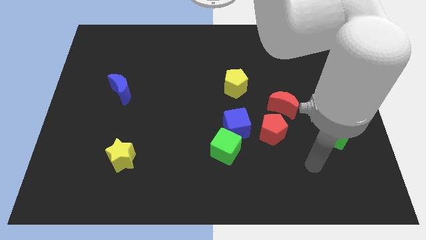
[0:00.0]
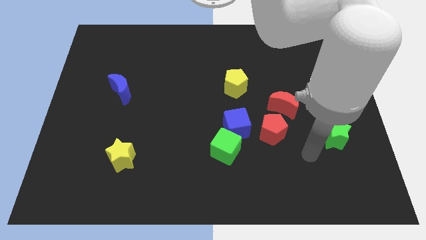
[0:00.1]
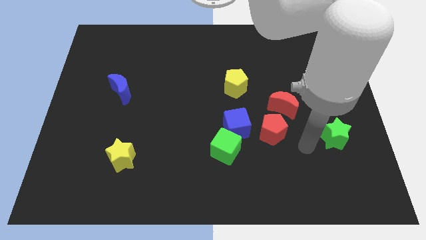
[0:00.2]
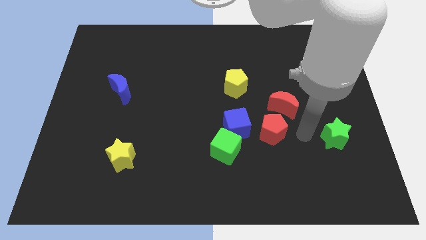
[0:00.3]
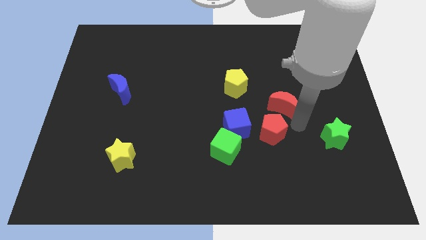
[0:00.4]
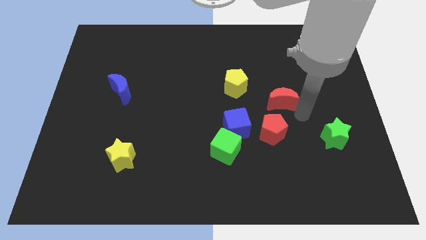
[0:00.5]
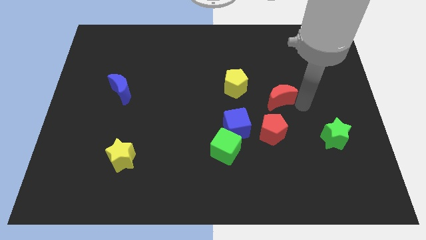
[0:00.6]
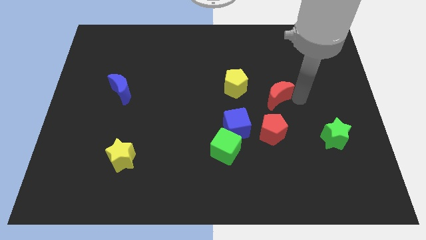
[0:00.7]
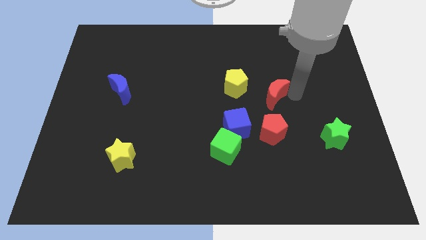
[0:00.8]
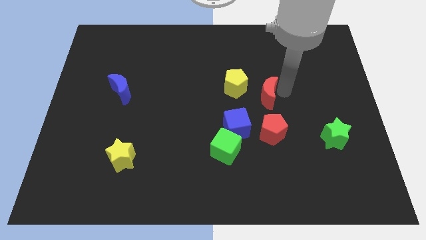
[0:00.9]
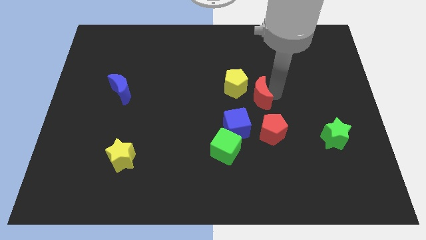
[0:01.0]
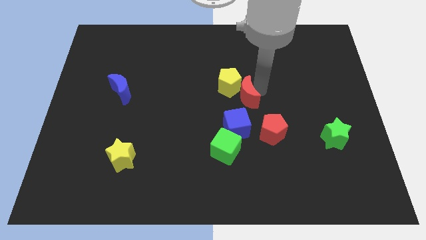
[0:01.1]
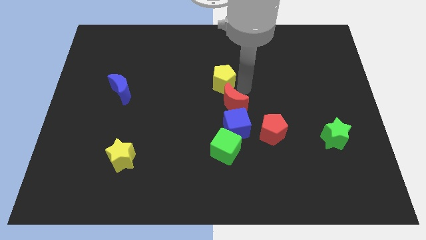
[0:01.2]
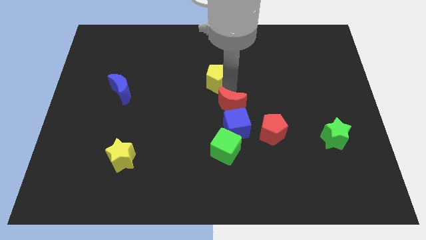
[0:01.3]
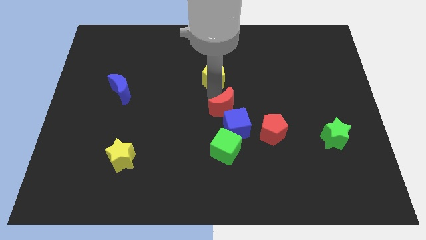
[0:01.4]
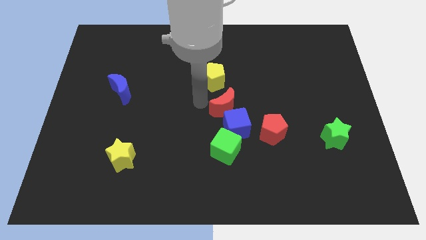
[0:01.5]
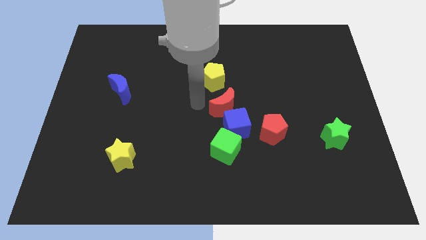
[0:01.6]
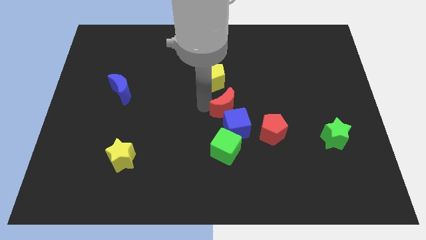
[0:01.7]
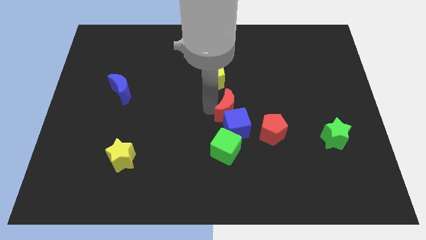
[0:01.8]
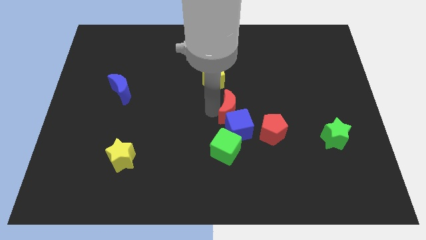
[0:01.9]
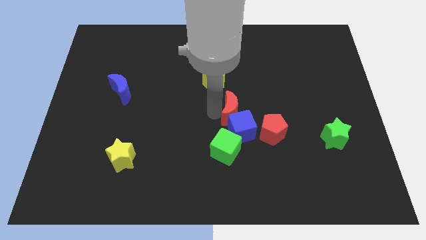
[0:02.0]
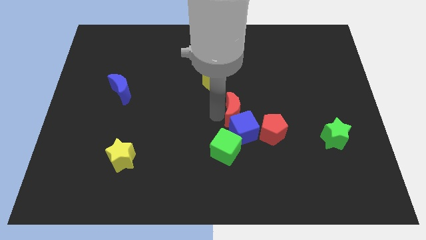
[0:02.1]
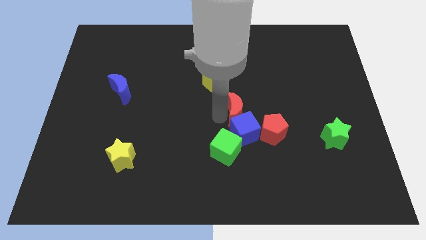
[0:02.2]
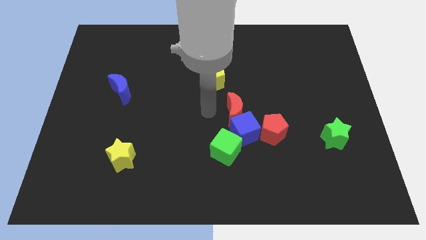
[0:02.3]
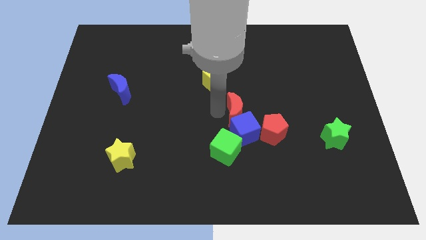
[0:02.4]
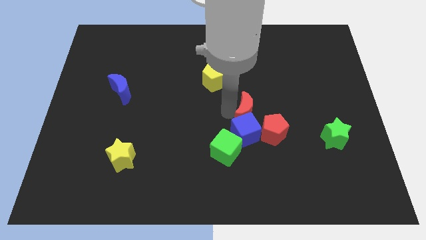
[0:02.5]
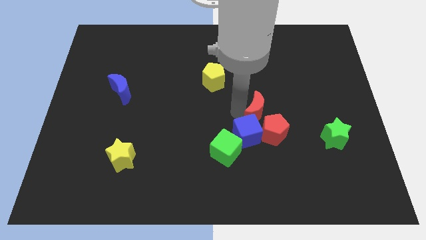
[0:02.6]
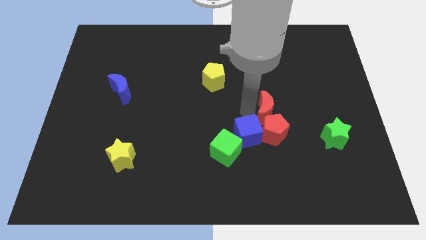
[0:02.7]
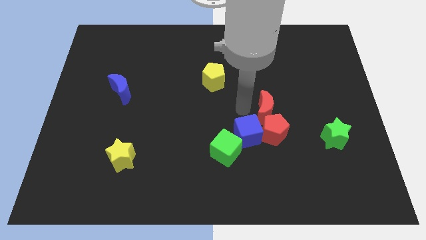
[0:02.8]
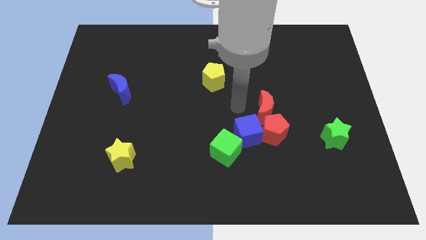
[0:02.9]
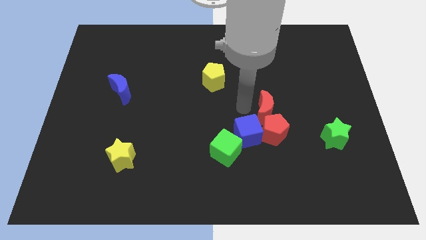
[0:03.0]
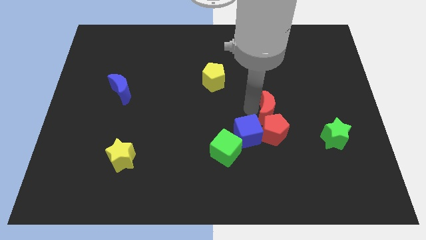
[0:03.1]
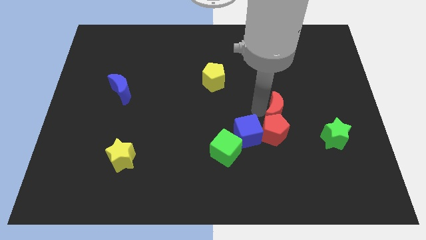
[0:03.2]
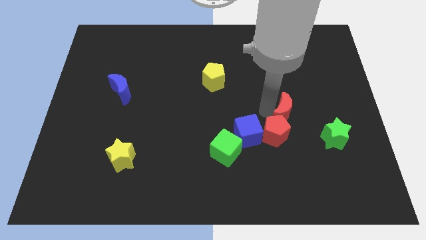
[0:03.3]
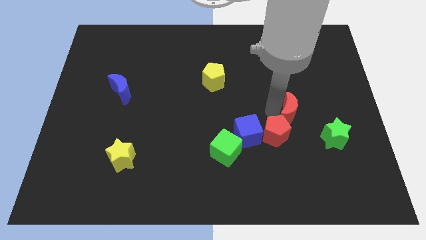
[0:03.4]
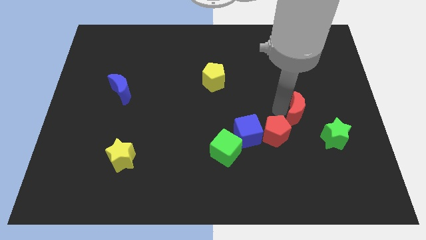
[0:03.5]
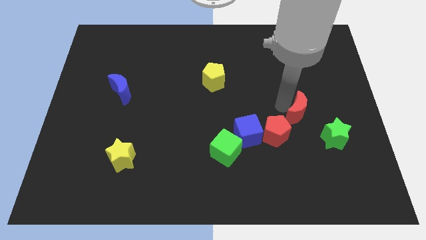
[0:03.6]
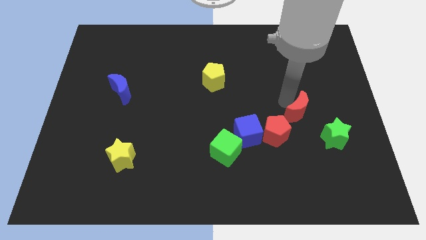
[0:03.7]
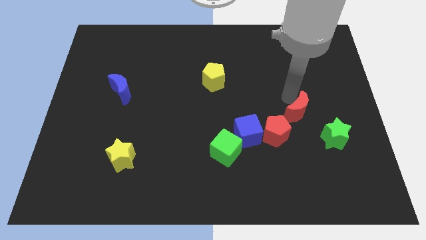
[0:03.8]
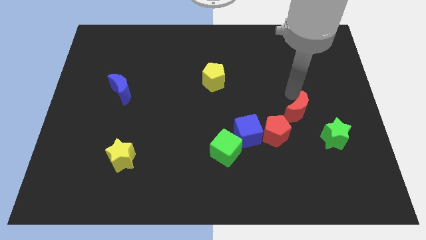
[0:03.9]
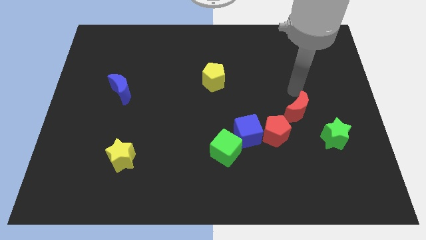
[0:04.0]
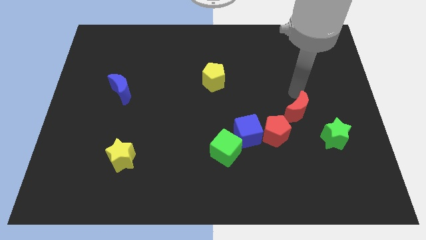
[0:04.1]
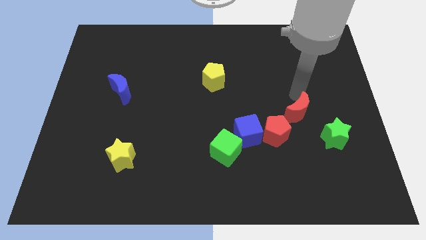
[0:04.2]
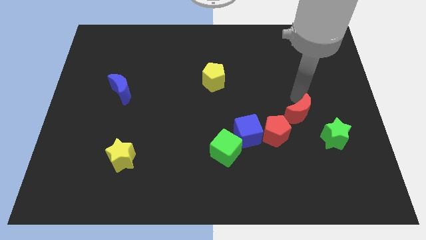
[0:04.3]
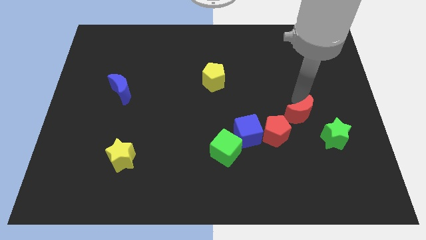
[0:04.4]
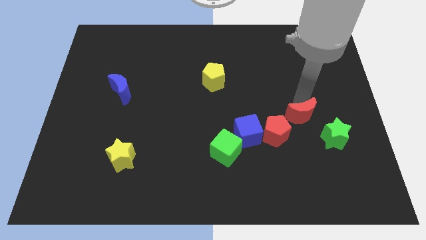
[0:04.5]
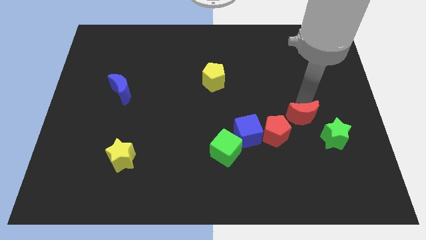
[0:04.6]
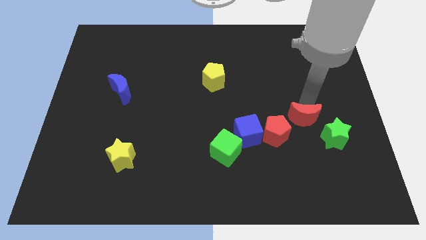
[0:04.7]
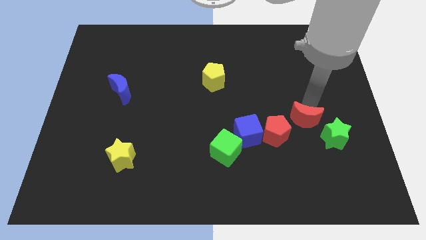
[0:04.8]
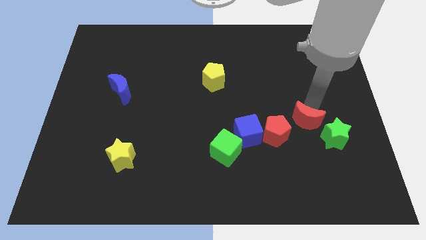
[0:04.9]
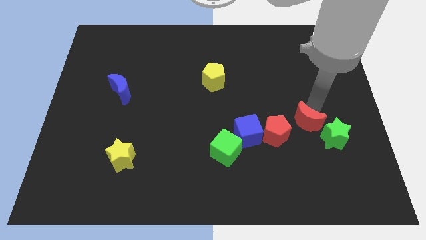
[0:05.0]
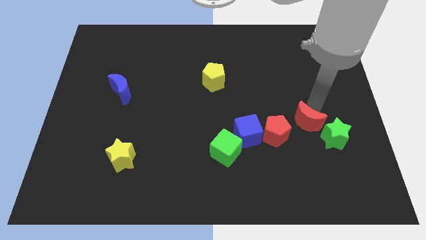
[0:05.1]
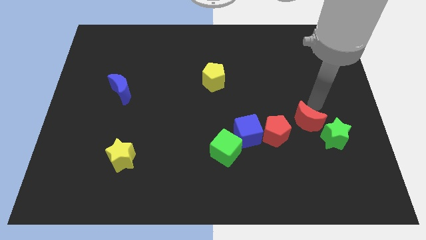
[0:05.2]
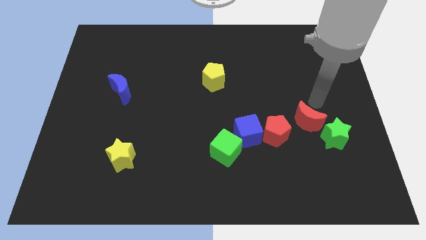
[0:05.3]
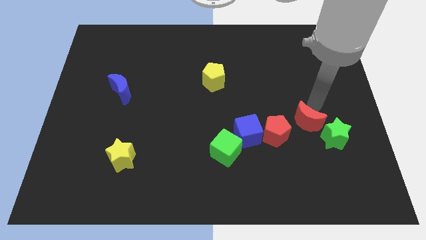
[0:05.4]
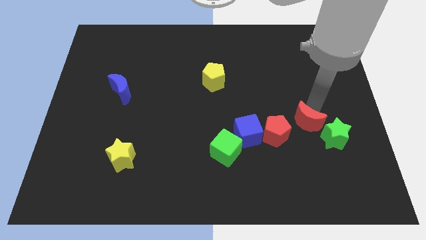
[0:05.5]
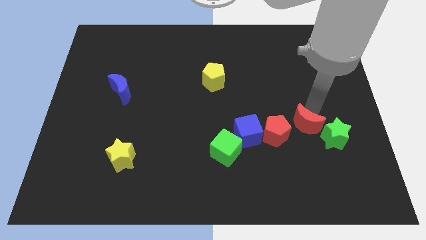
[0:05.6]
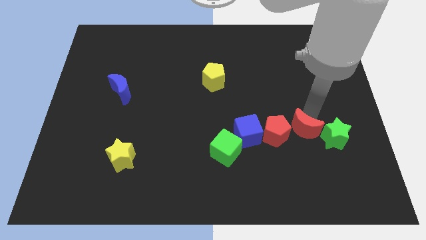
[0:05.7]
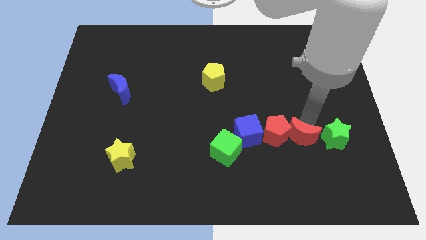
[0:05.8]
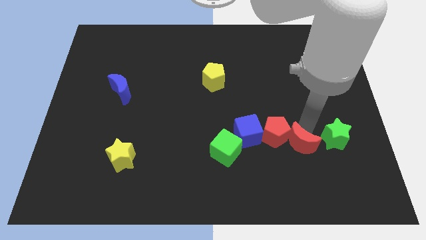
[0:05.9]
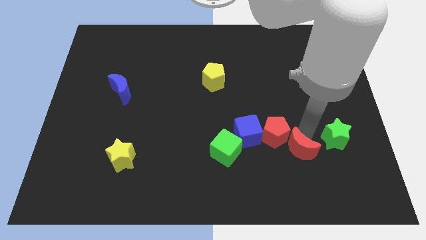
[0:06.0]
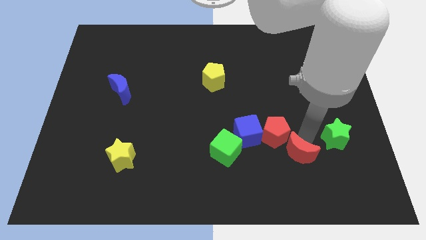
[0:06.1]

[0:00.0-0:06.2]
move the red moon to the bottom side of the red pentagon

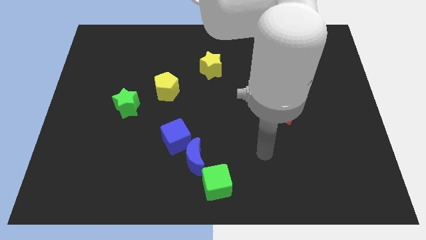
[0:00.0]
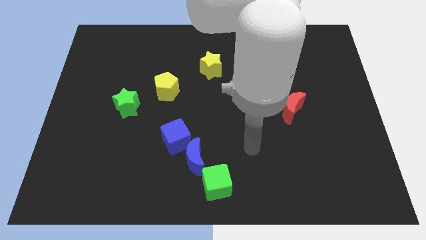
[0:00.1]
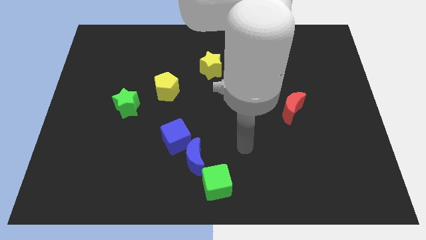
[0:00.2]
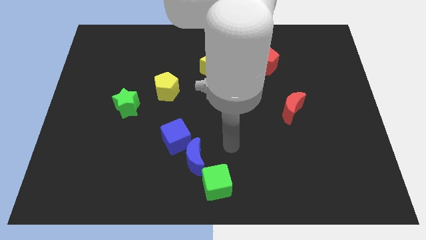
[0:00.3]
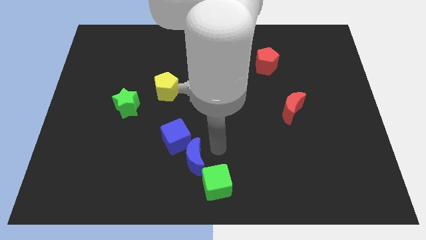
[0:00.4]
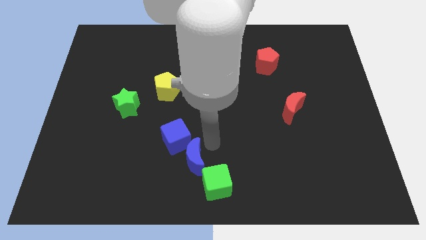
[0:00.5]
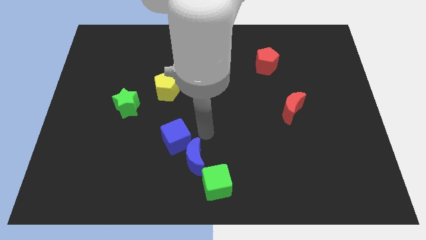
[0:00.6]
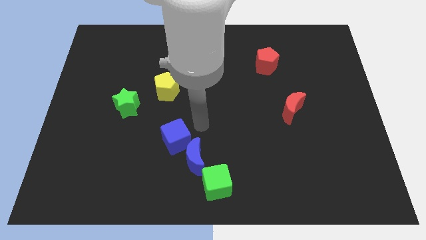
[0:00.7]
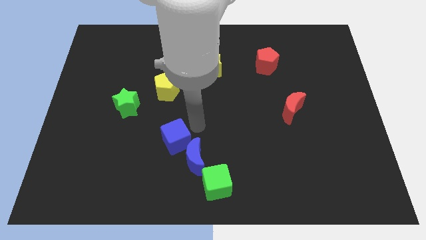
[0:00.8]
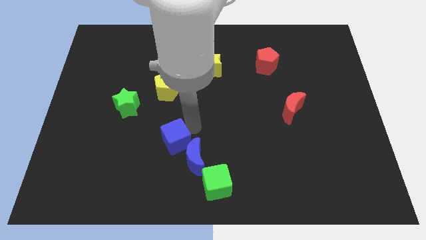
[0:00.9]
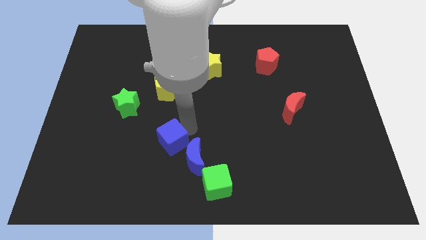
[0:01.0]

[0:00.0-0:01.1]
move the blue cube left of the blue moon
